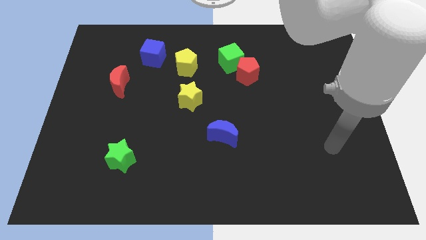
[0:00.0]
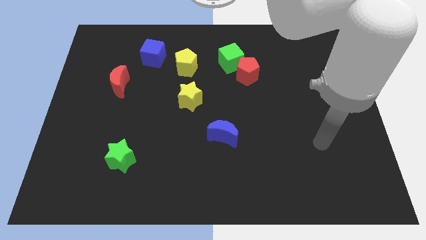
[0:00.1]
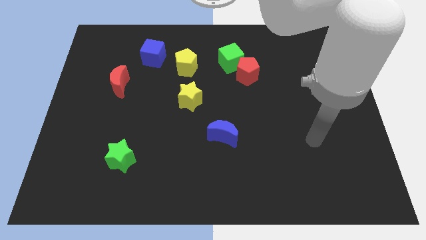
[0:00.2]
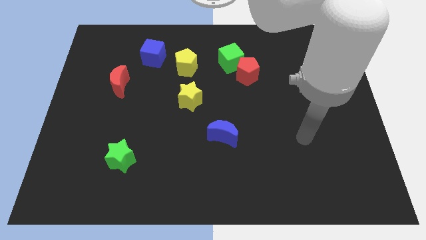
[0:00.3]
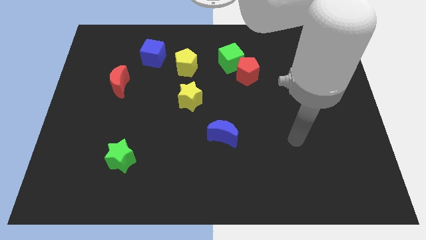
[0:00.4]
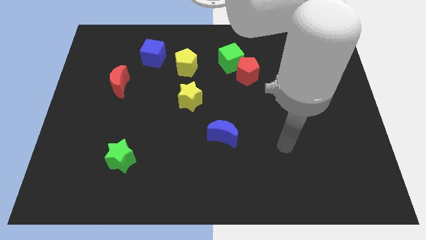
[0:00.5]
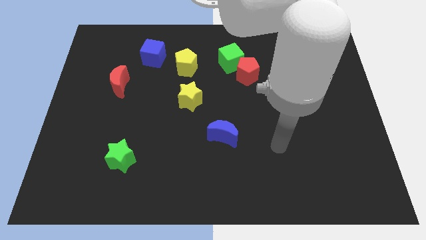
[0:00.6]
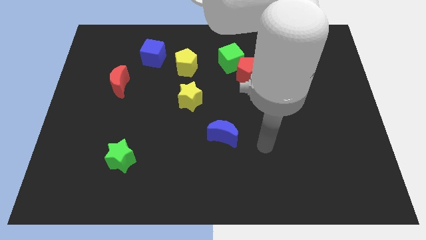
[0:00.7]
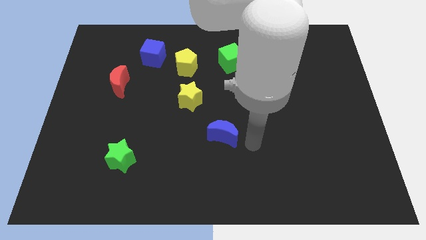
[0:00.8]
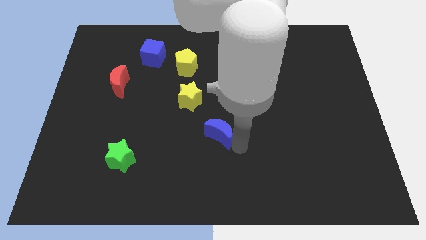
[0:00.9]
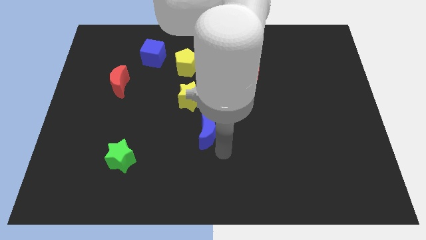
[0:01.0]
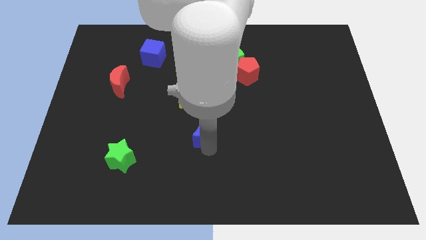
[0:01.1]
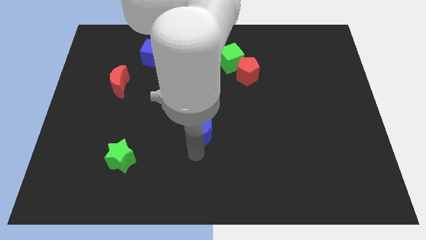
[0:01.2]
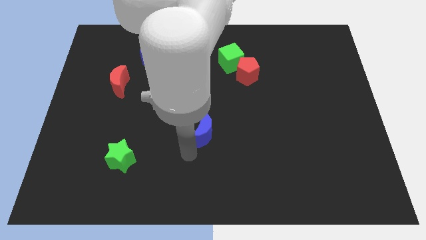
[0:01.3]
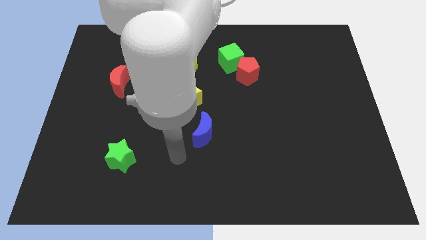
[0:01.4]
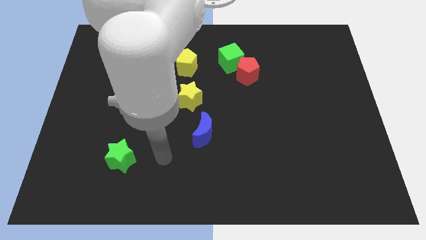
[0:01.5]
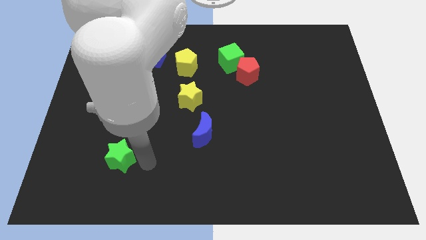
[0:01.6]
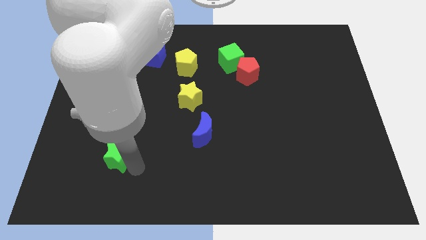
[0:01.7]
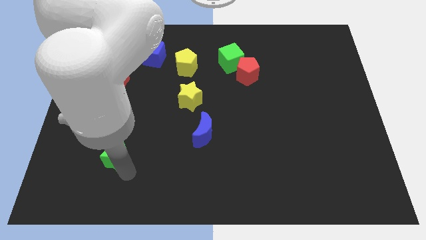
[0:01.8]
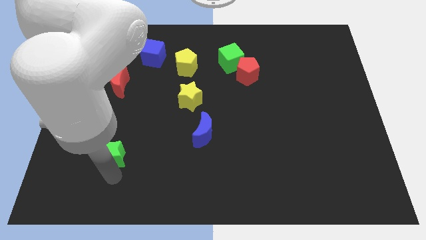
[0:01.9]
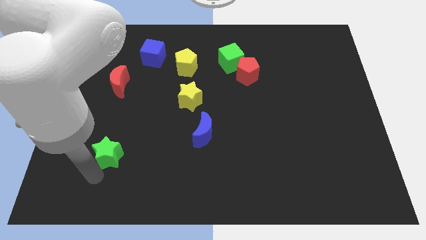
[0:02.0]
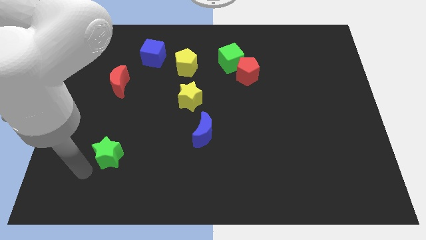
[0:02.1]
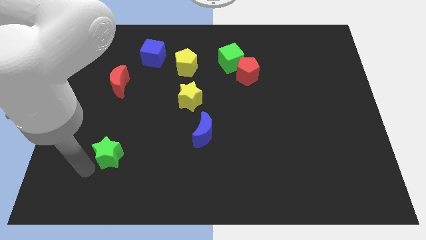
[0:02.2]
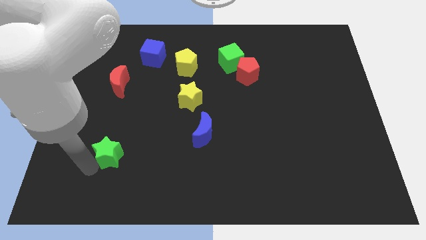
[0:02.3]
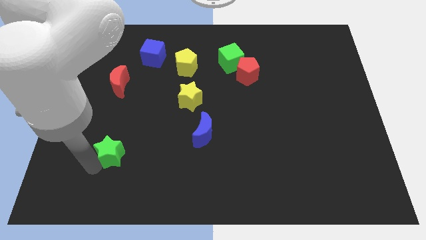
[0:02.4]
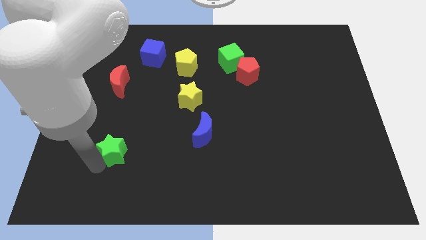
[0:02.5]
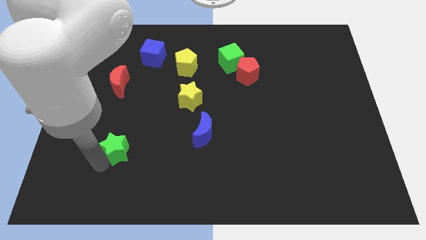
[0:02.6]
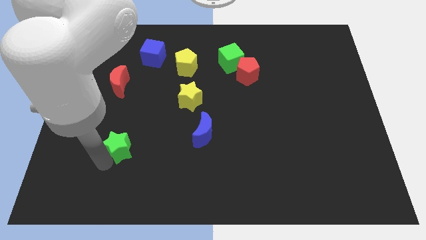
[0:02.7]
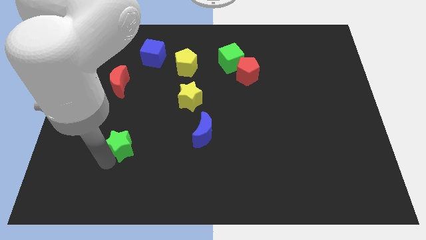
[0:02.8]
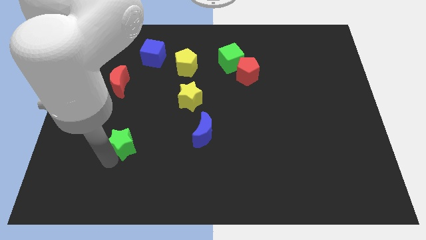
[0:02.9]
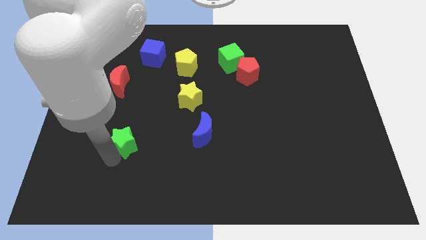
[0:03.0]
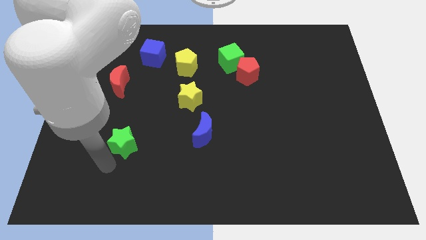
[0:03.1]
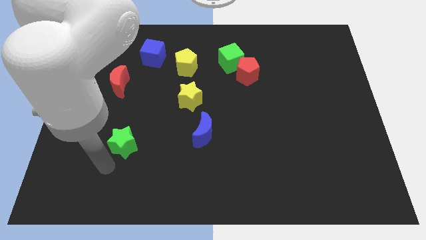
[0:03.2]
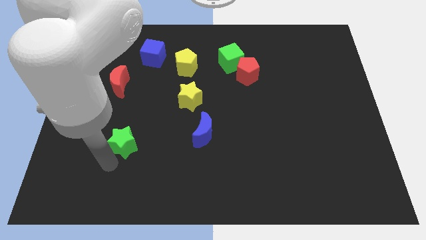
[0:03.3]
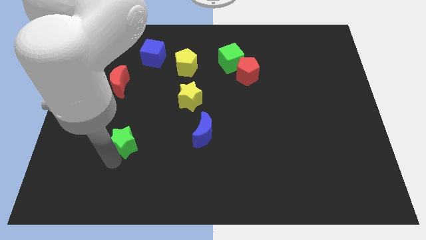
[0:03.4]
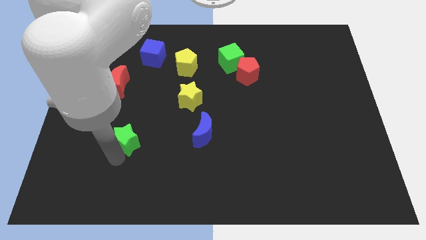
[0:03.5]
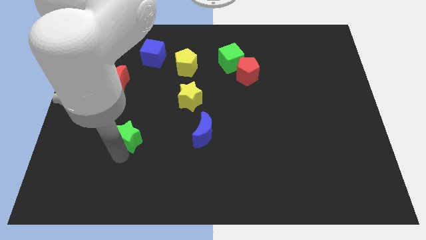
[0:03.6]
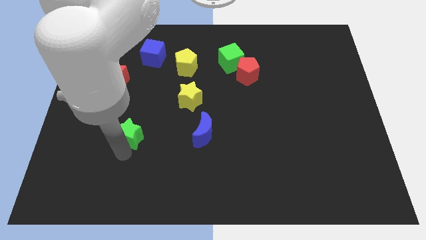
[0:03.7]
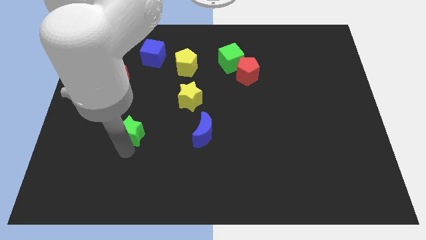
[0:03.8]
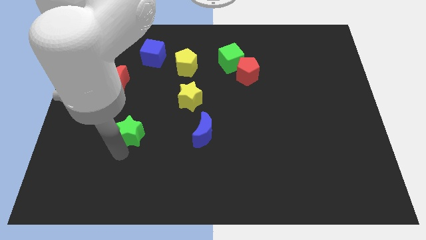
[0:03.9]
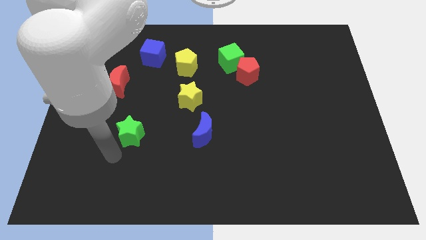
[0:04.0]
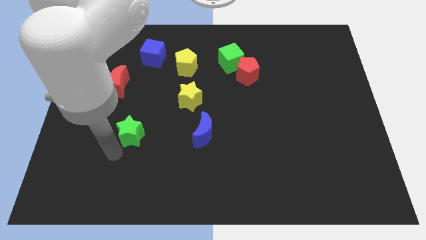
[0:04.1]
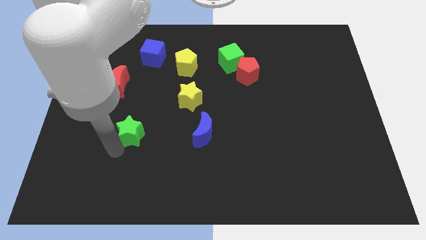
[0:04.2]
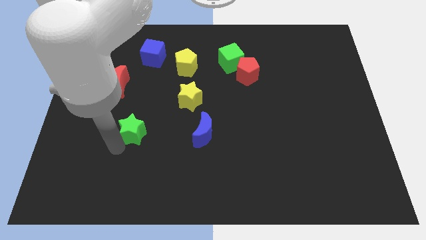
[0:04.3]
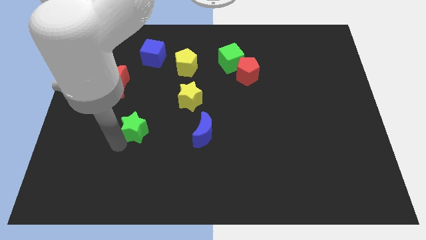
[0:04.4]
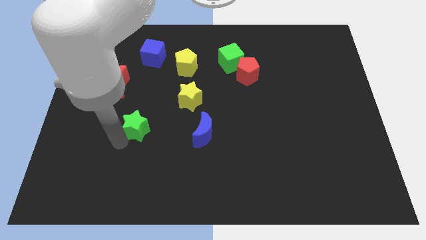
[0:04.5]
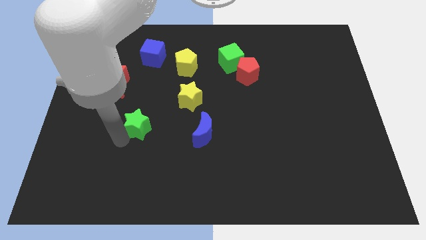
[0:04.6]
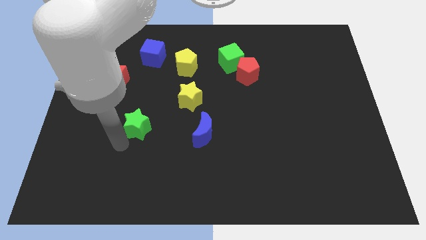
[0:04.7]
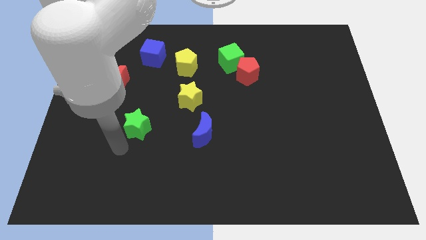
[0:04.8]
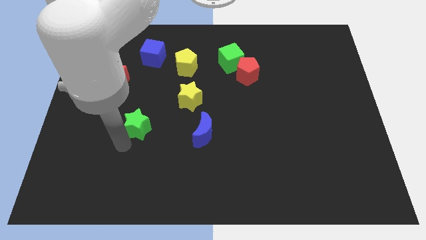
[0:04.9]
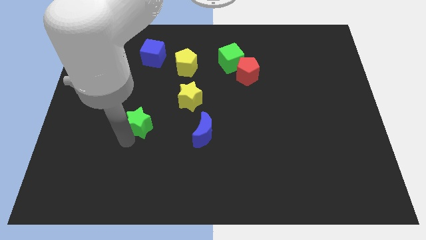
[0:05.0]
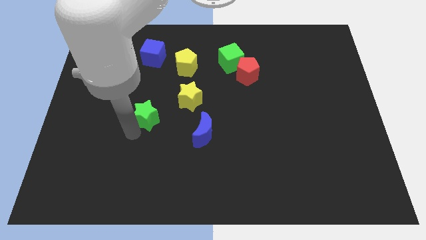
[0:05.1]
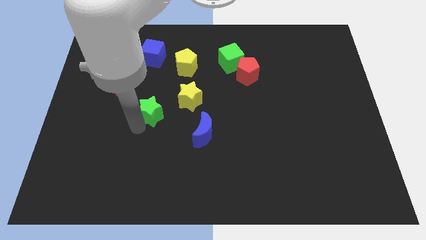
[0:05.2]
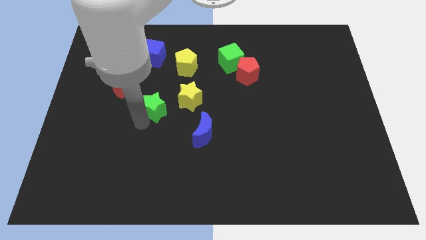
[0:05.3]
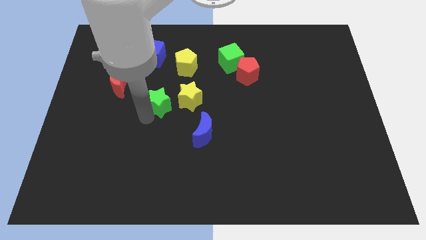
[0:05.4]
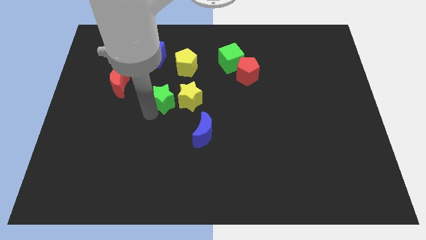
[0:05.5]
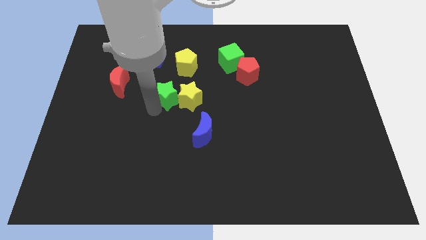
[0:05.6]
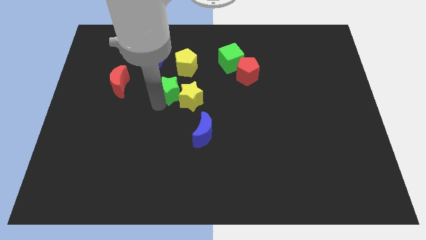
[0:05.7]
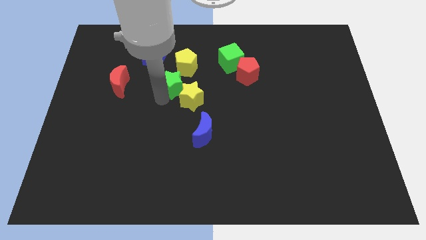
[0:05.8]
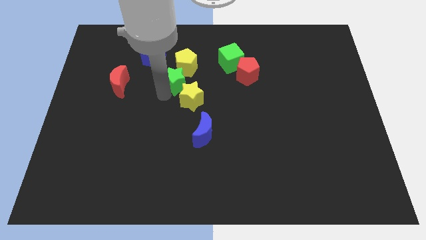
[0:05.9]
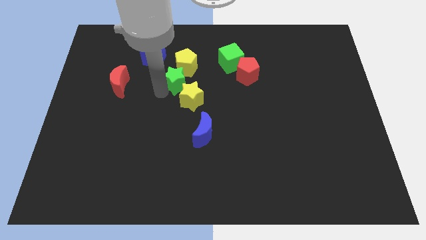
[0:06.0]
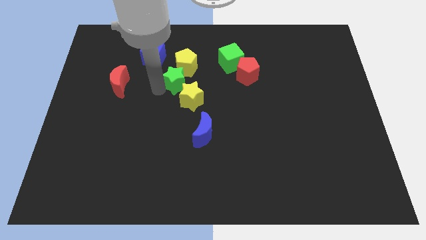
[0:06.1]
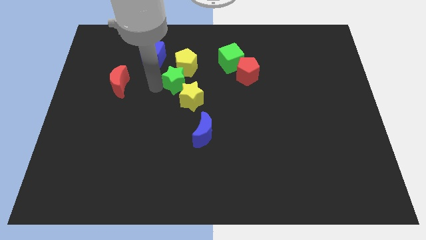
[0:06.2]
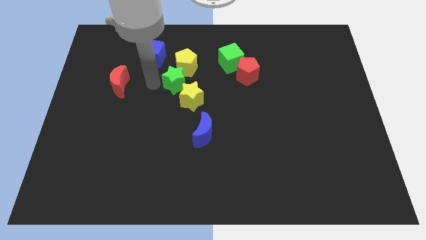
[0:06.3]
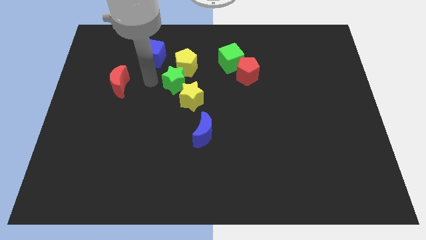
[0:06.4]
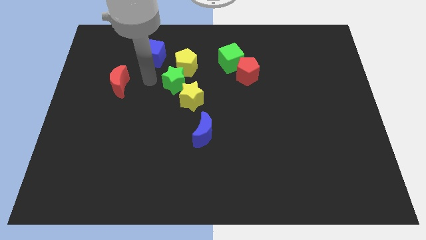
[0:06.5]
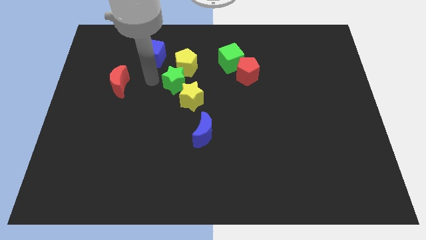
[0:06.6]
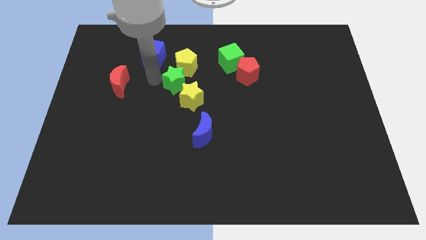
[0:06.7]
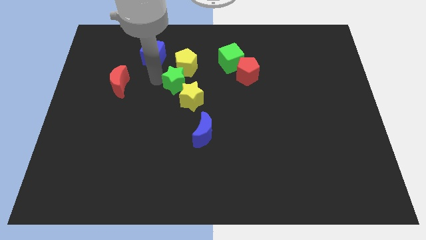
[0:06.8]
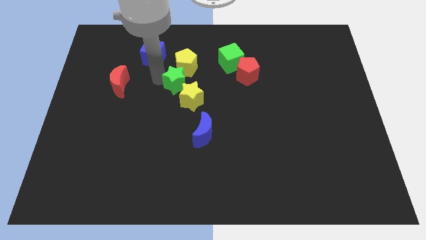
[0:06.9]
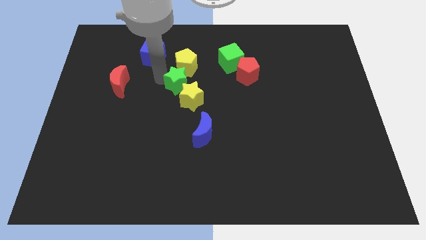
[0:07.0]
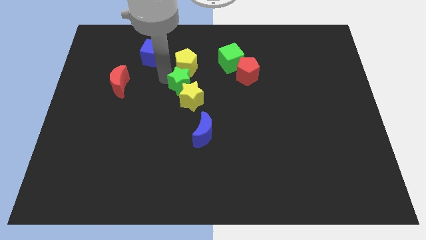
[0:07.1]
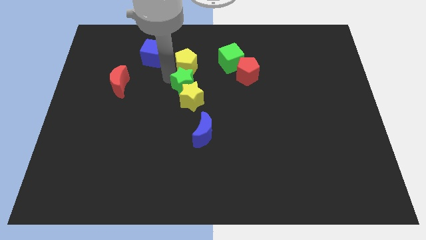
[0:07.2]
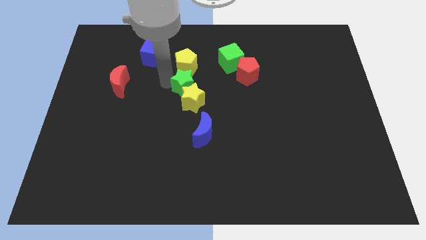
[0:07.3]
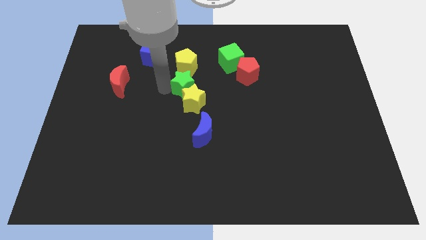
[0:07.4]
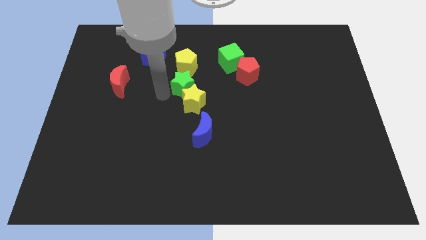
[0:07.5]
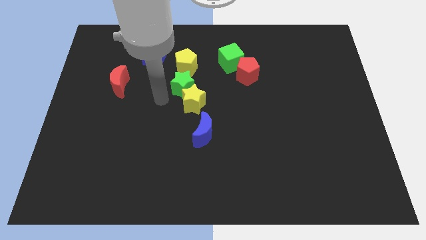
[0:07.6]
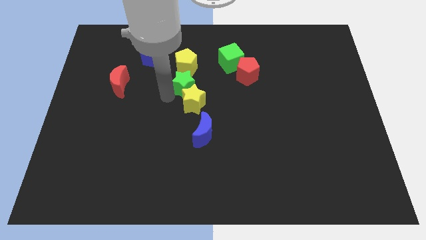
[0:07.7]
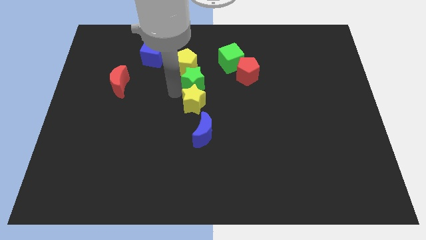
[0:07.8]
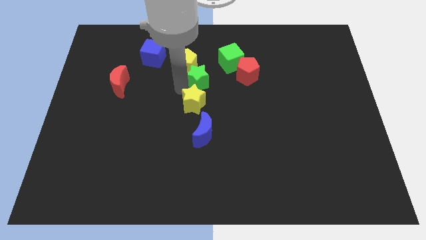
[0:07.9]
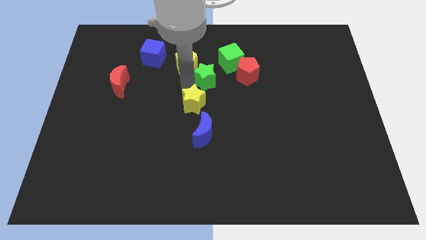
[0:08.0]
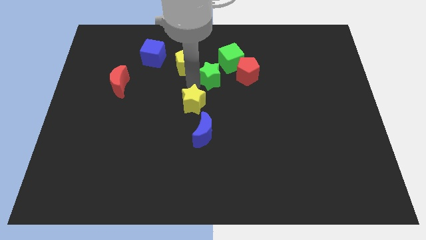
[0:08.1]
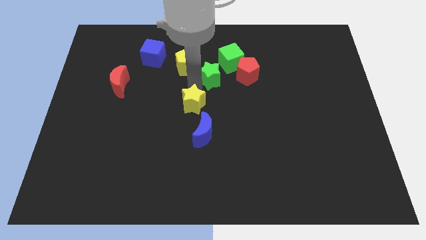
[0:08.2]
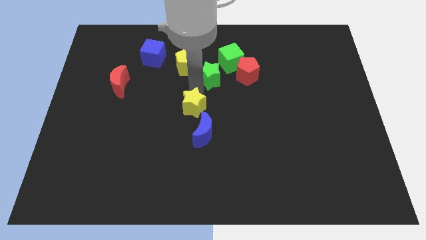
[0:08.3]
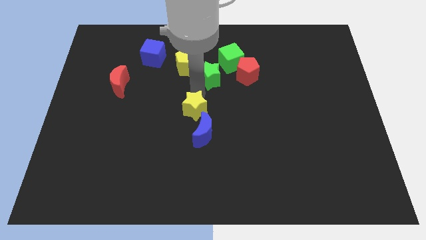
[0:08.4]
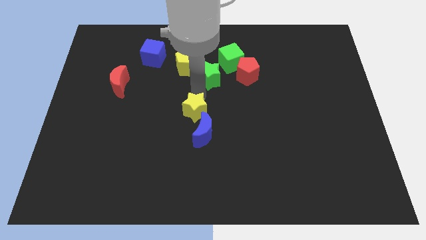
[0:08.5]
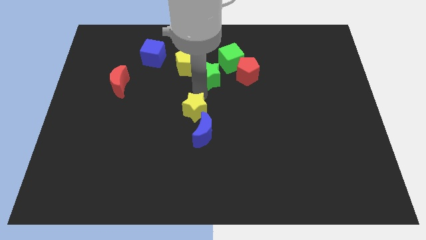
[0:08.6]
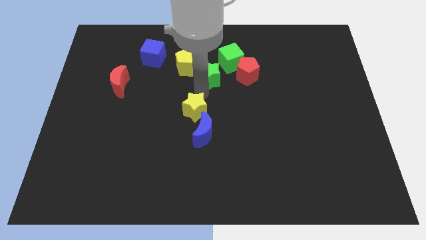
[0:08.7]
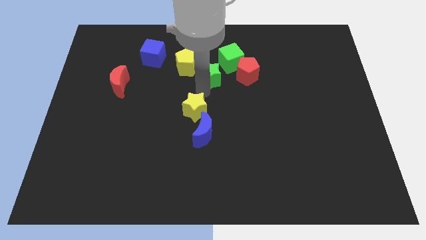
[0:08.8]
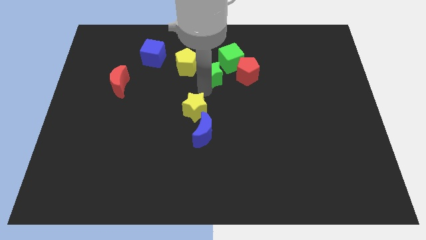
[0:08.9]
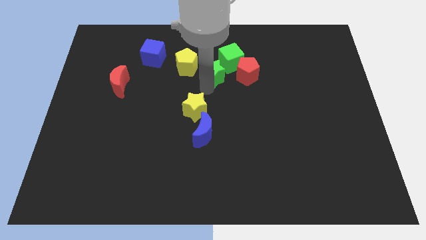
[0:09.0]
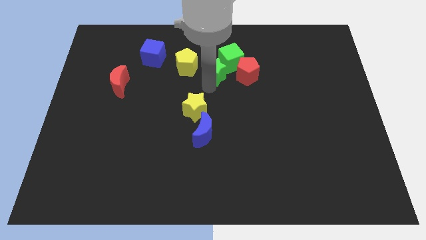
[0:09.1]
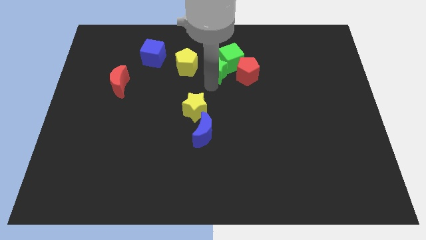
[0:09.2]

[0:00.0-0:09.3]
move the green star close to the green cube
